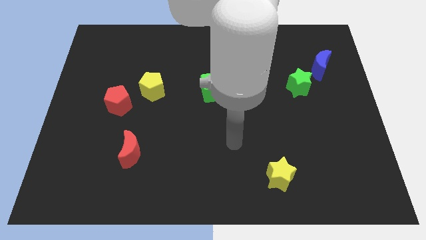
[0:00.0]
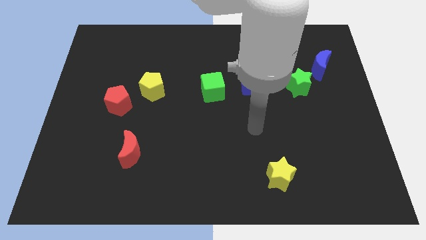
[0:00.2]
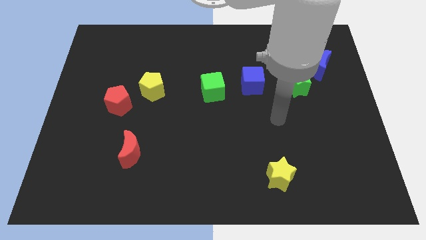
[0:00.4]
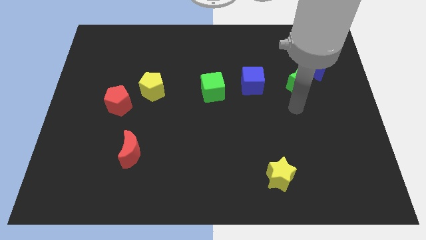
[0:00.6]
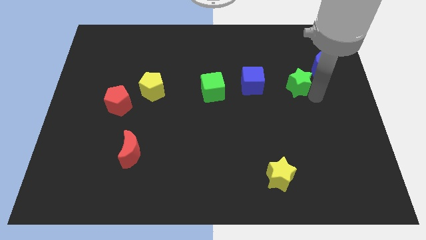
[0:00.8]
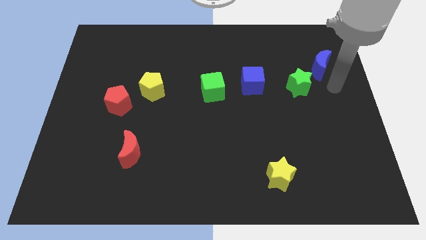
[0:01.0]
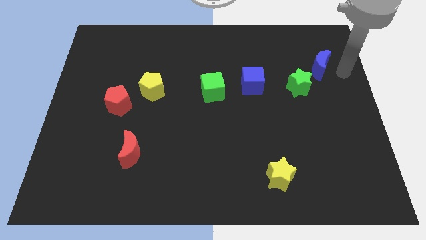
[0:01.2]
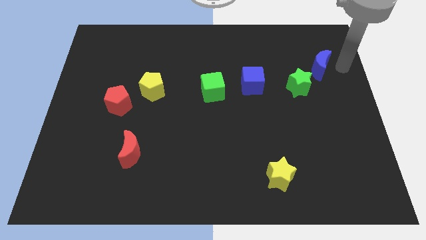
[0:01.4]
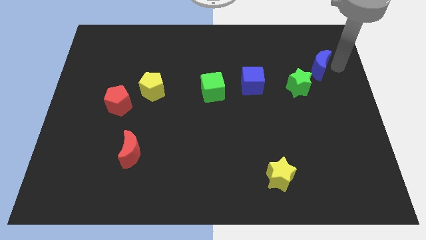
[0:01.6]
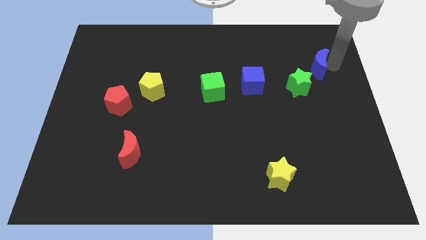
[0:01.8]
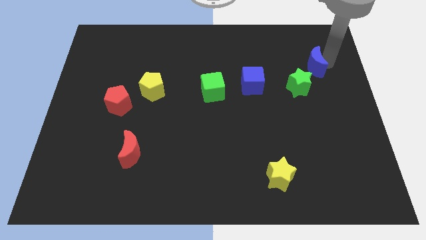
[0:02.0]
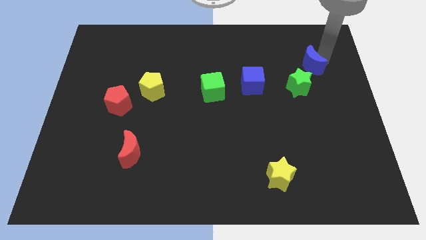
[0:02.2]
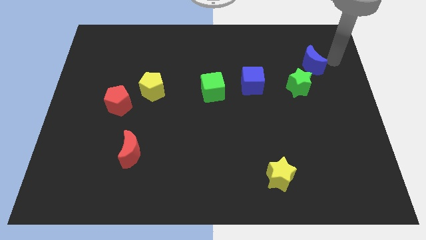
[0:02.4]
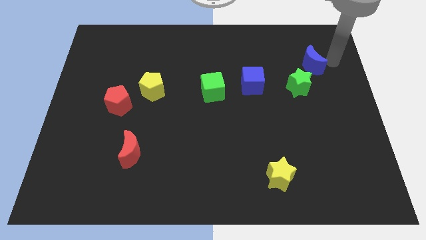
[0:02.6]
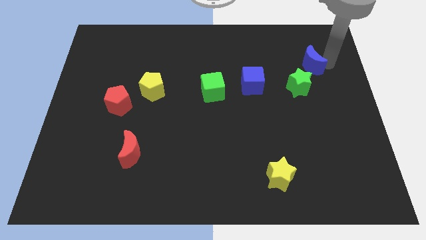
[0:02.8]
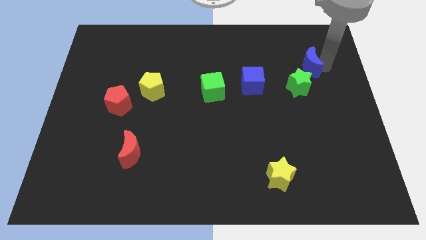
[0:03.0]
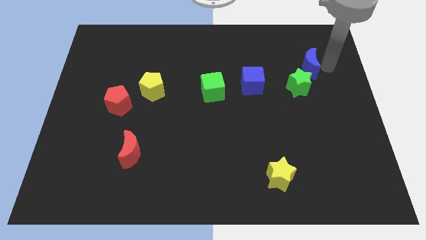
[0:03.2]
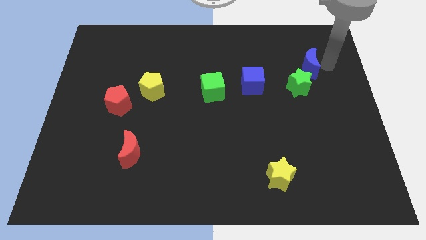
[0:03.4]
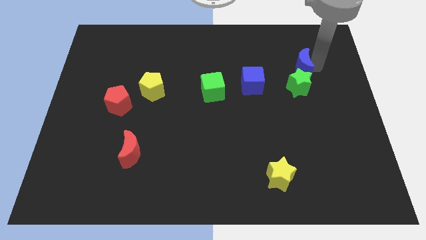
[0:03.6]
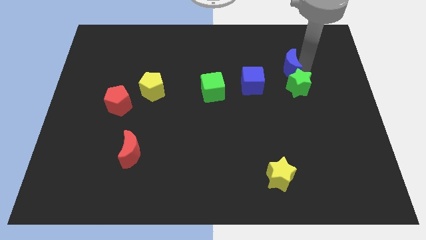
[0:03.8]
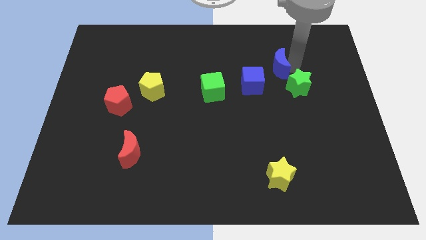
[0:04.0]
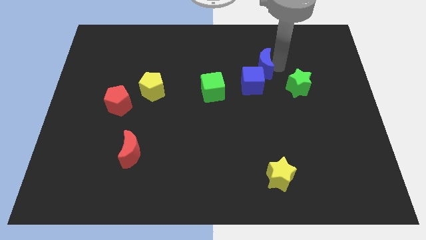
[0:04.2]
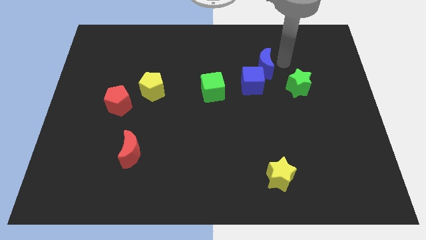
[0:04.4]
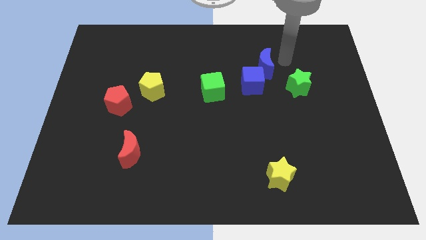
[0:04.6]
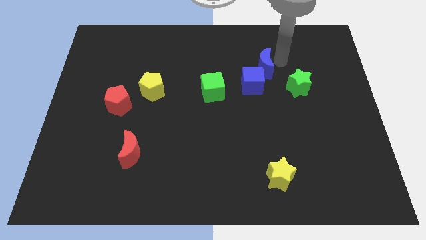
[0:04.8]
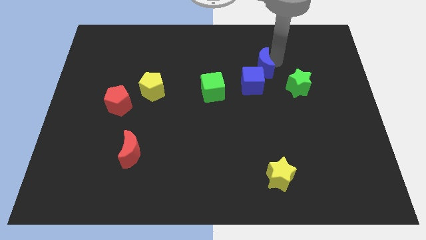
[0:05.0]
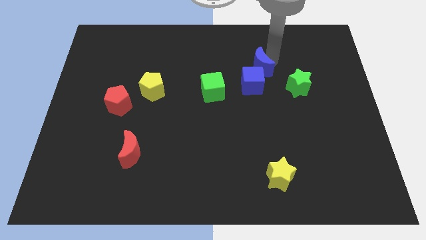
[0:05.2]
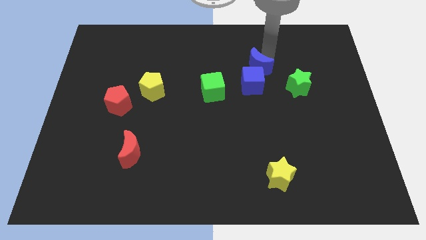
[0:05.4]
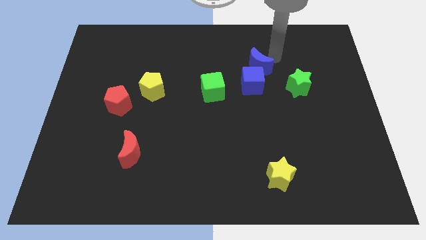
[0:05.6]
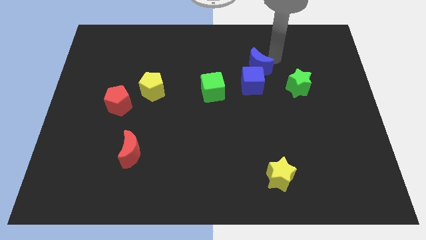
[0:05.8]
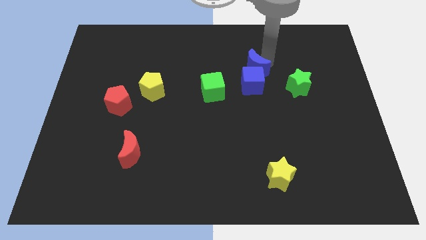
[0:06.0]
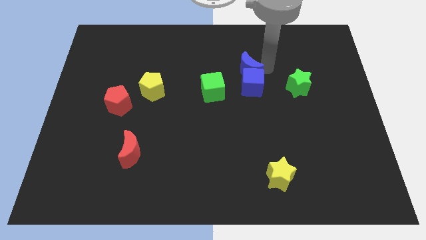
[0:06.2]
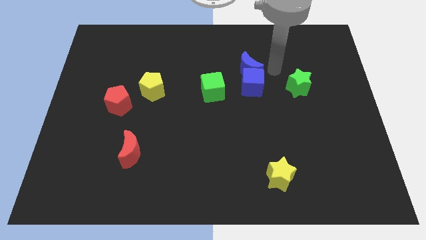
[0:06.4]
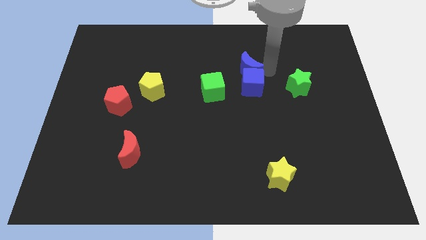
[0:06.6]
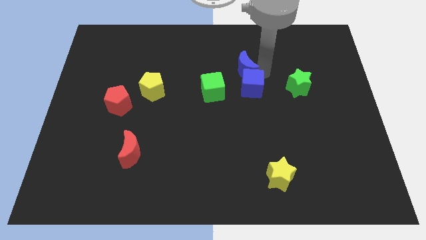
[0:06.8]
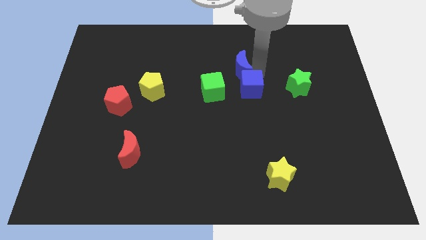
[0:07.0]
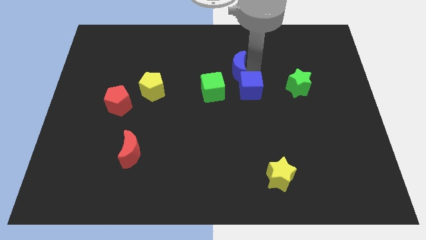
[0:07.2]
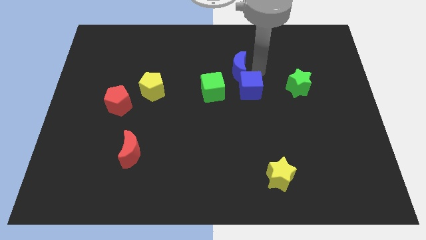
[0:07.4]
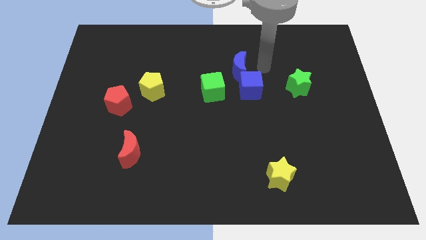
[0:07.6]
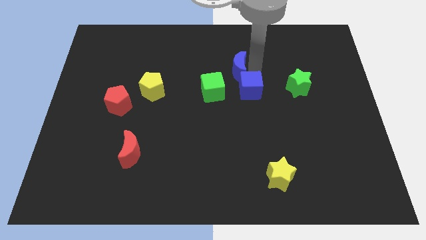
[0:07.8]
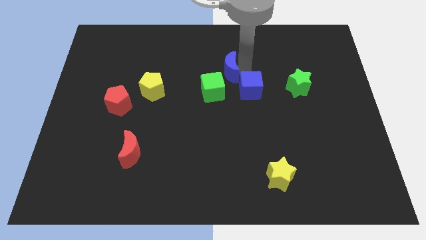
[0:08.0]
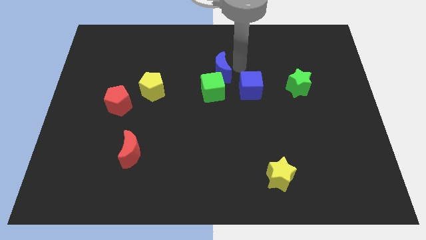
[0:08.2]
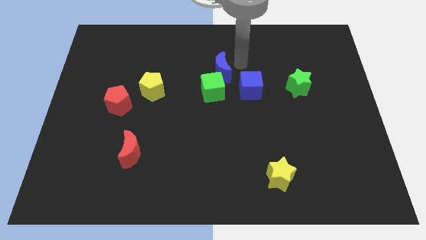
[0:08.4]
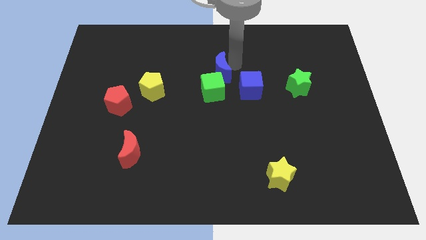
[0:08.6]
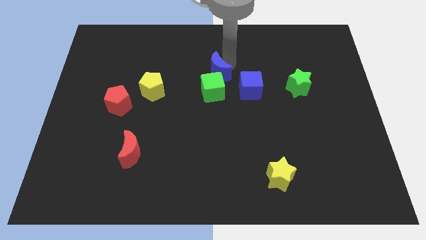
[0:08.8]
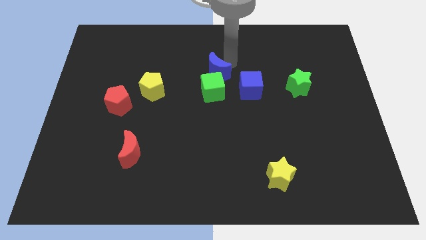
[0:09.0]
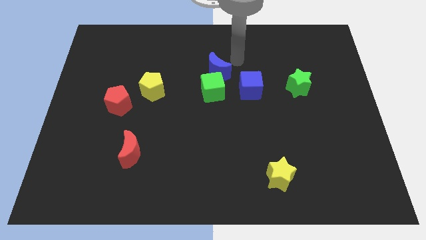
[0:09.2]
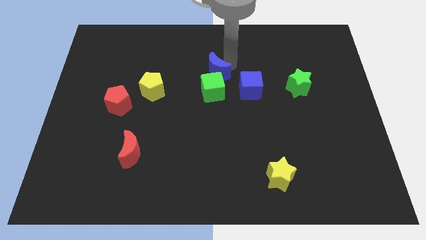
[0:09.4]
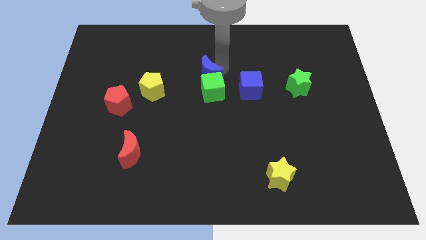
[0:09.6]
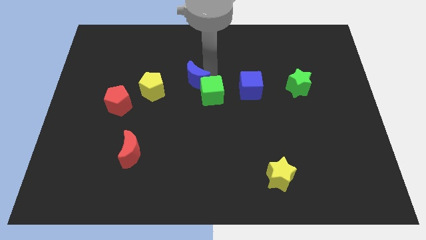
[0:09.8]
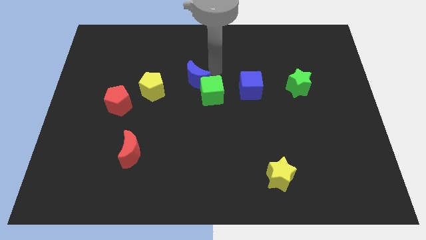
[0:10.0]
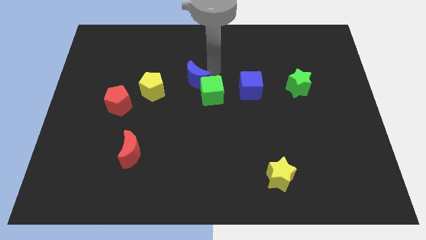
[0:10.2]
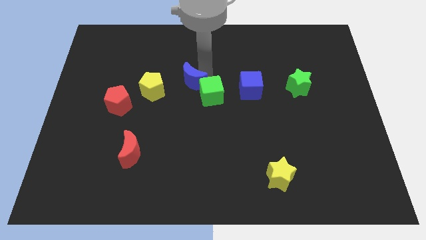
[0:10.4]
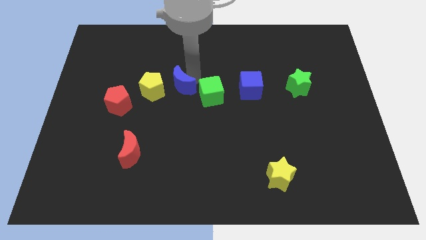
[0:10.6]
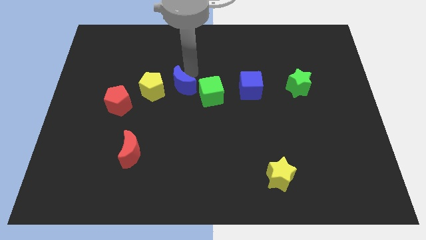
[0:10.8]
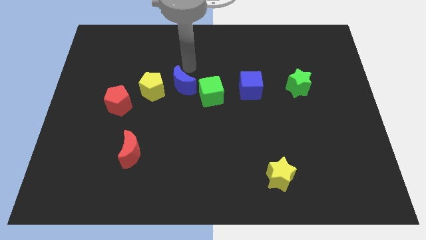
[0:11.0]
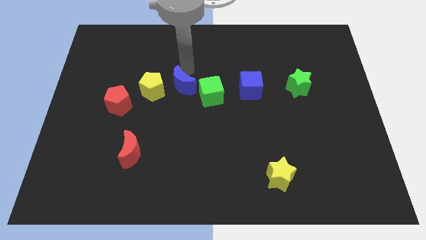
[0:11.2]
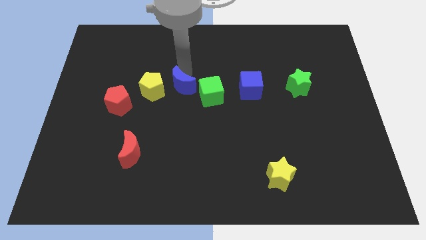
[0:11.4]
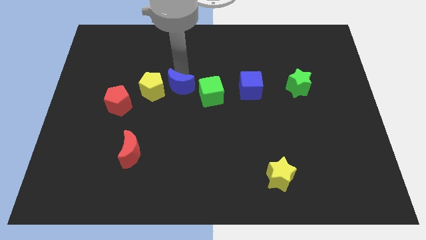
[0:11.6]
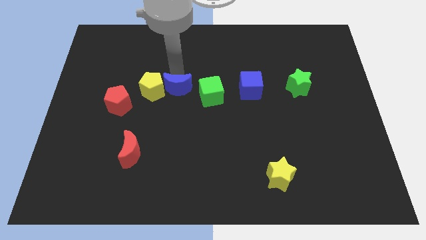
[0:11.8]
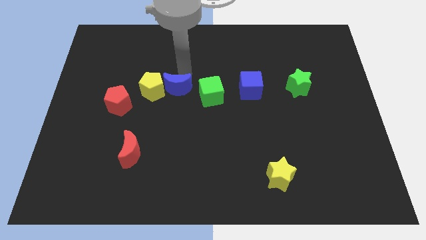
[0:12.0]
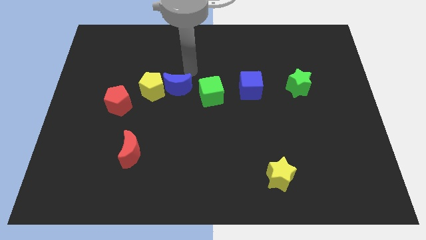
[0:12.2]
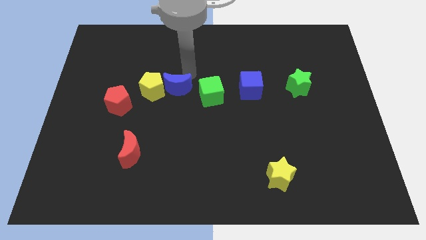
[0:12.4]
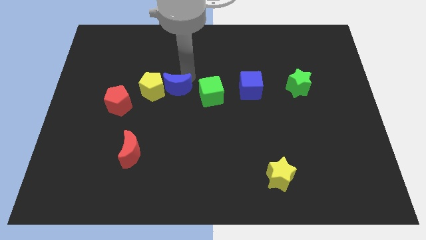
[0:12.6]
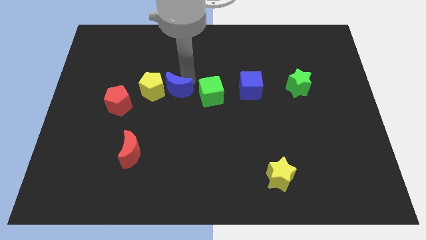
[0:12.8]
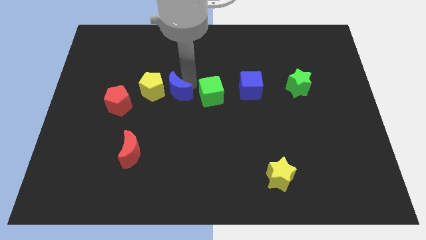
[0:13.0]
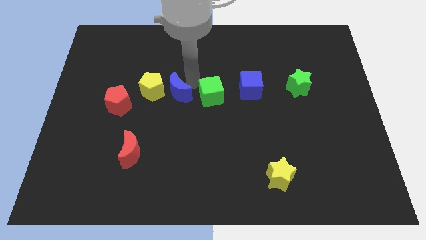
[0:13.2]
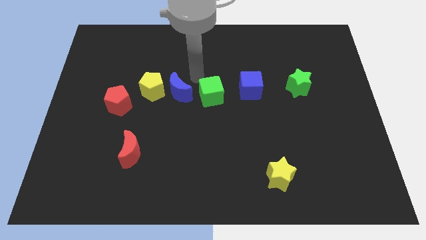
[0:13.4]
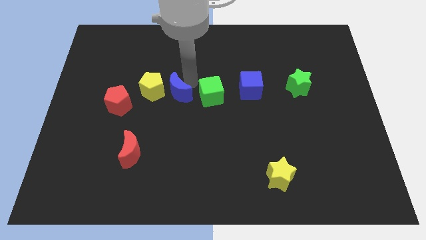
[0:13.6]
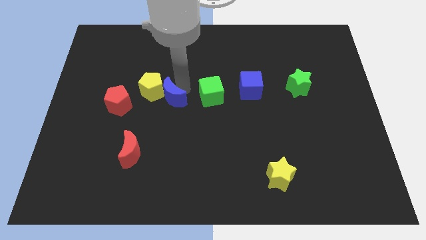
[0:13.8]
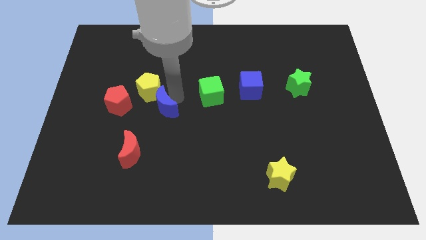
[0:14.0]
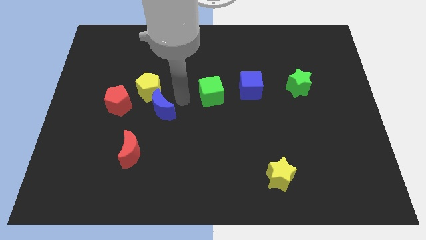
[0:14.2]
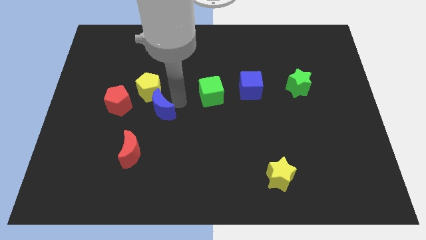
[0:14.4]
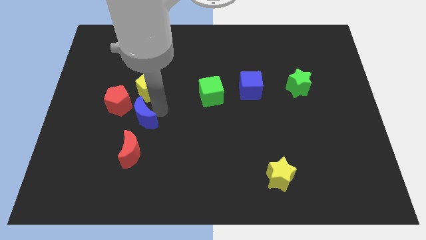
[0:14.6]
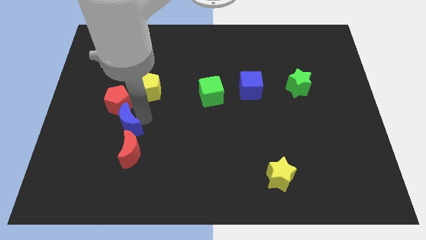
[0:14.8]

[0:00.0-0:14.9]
slide the blue moon to the top left of the red moon
